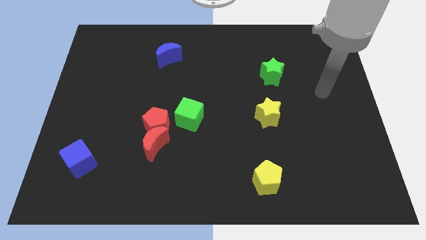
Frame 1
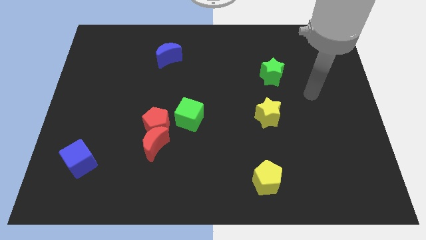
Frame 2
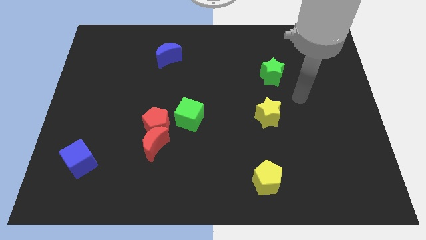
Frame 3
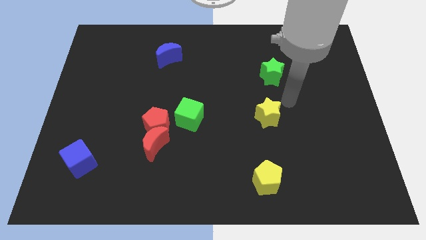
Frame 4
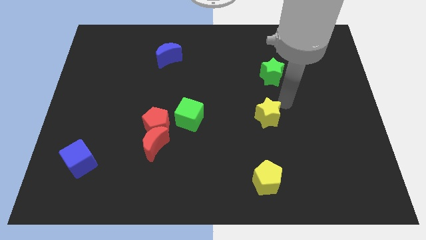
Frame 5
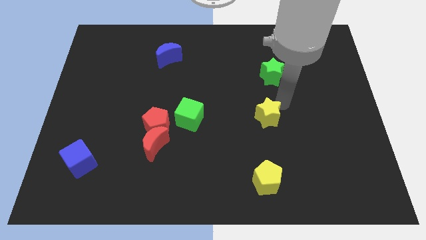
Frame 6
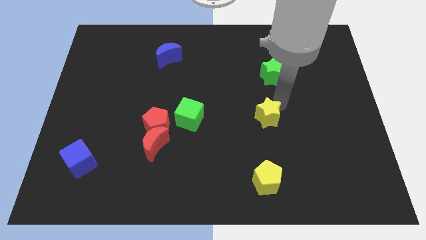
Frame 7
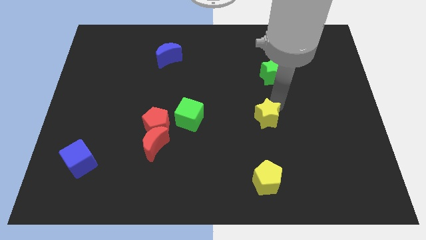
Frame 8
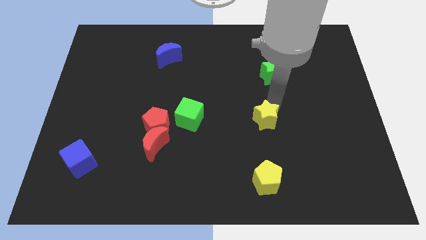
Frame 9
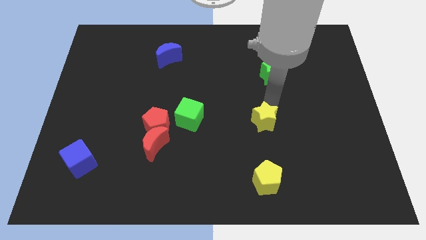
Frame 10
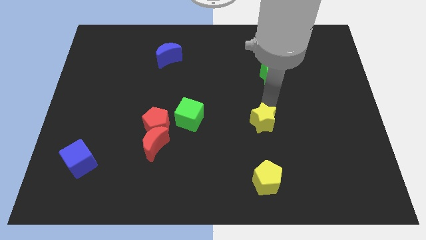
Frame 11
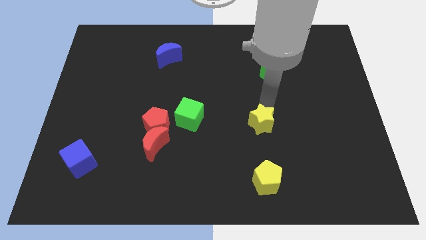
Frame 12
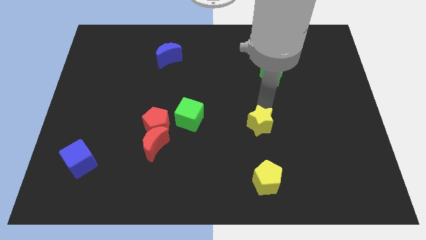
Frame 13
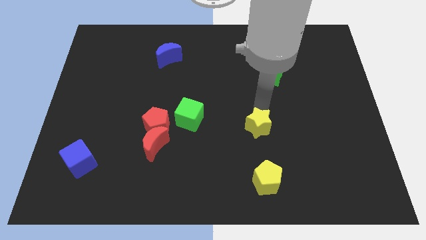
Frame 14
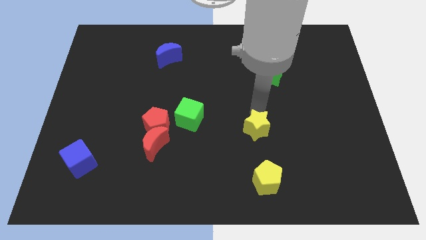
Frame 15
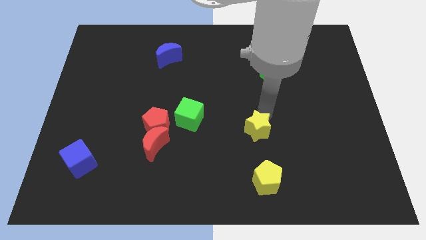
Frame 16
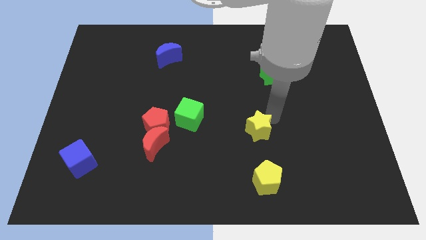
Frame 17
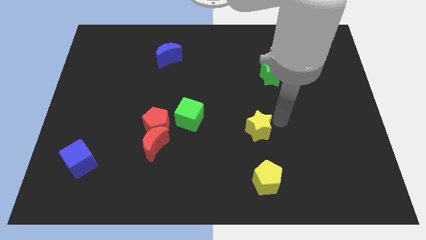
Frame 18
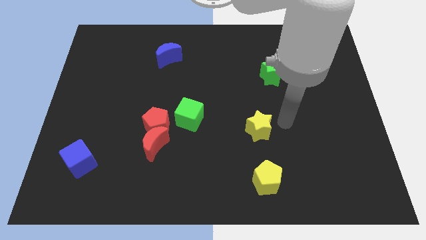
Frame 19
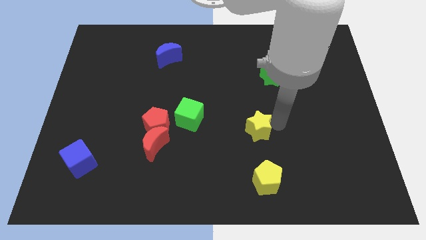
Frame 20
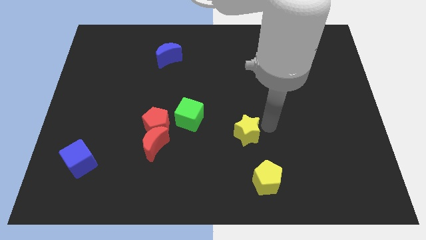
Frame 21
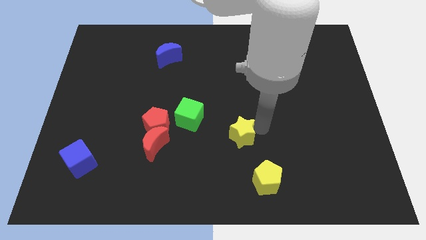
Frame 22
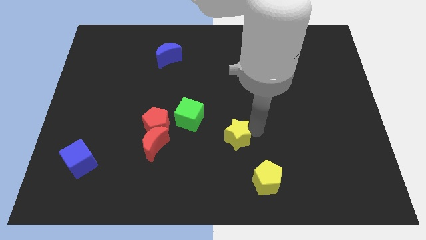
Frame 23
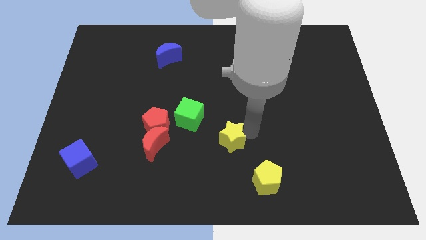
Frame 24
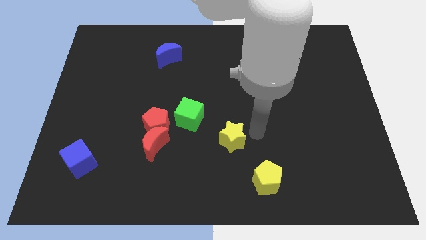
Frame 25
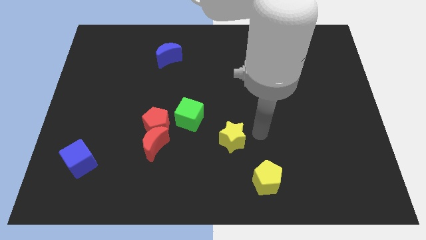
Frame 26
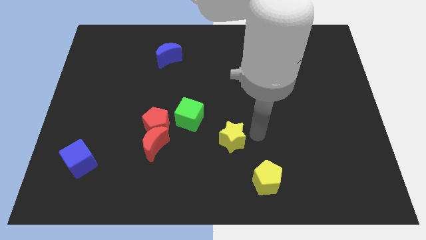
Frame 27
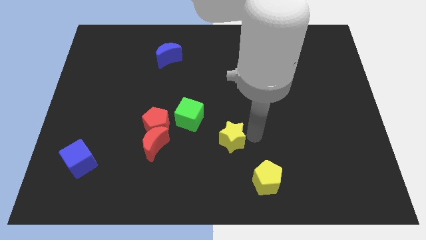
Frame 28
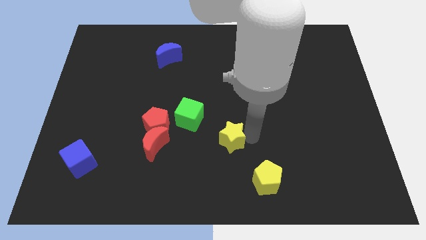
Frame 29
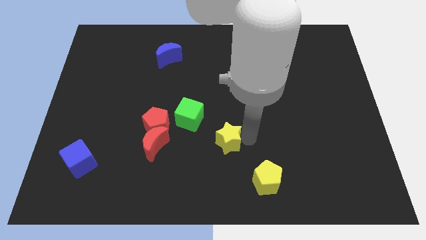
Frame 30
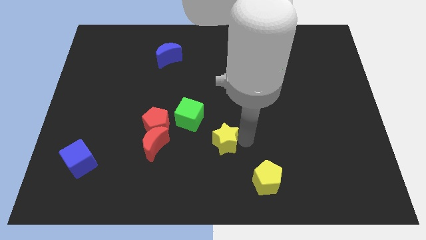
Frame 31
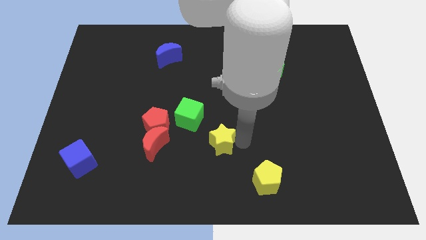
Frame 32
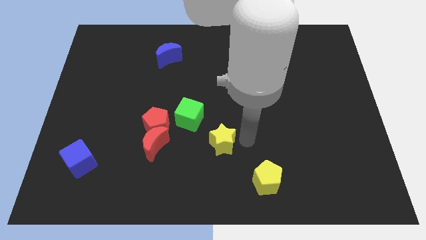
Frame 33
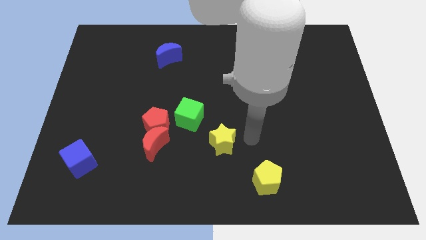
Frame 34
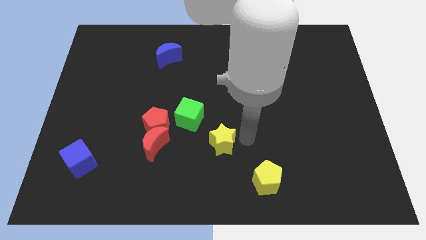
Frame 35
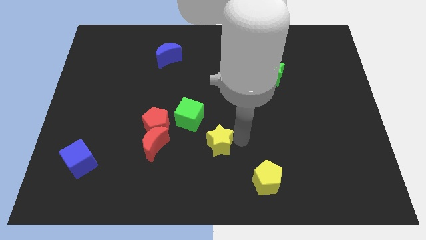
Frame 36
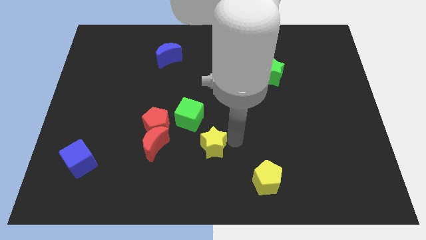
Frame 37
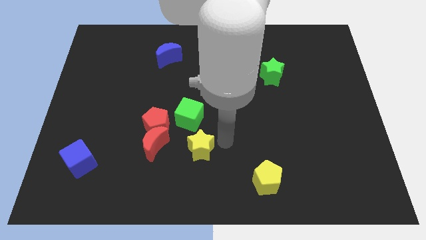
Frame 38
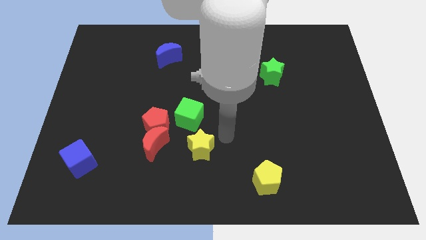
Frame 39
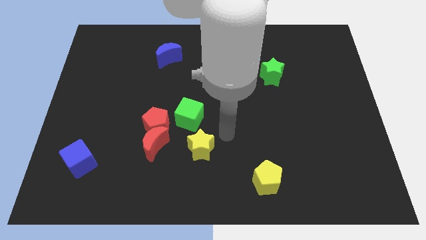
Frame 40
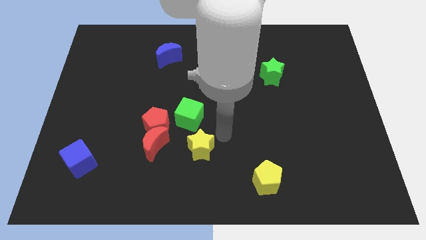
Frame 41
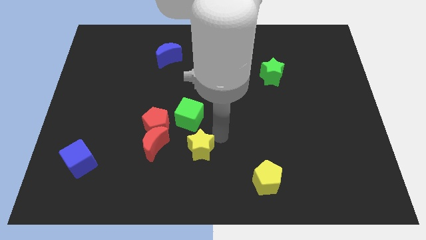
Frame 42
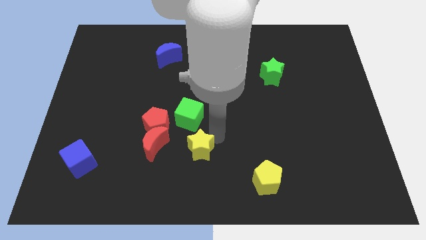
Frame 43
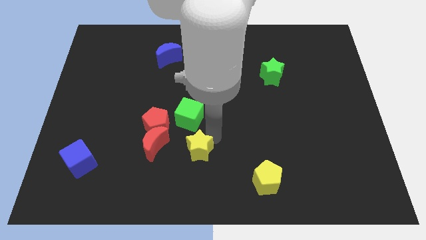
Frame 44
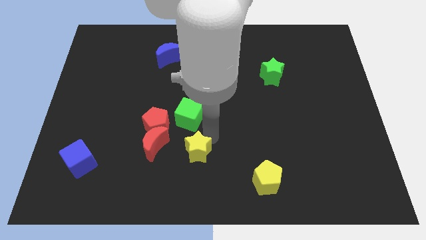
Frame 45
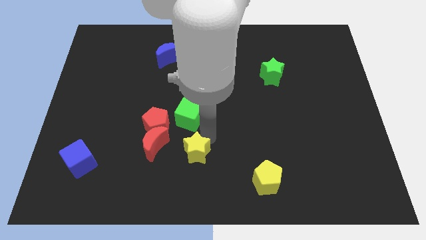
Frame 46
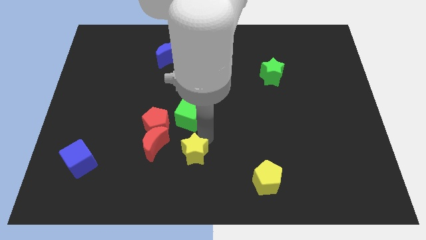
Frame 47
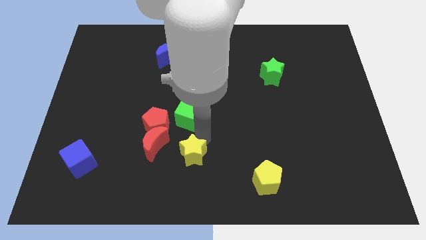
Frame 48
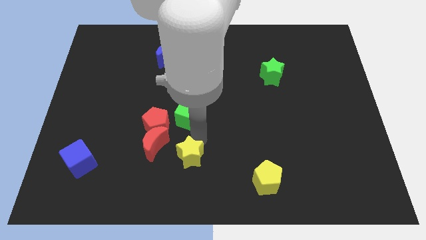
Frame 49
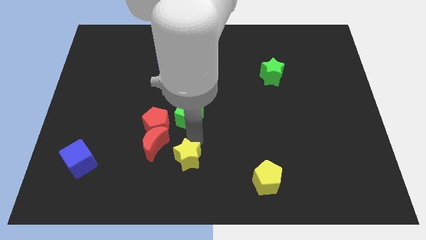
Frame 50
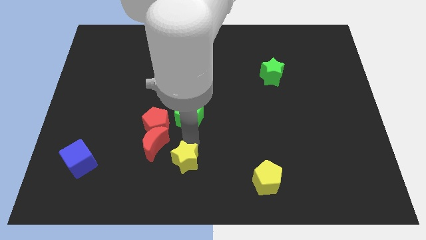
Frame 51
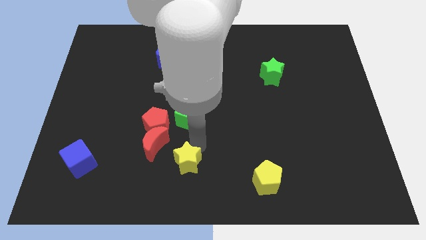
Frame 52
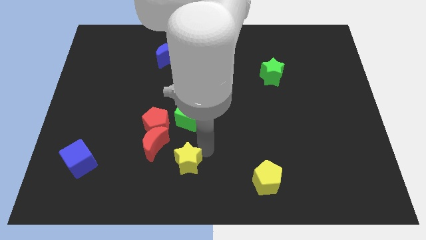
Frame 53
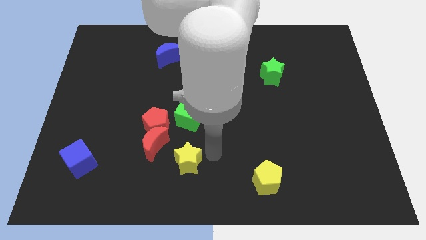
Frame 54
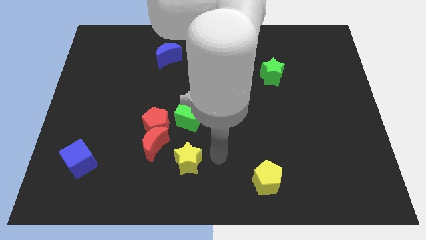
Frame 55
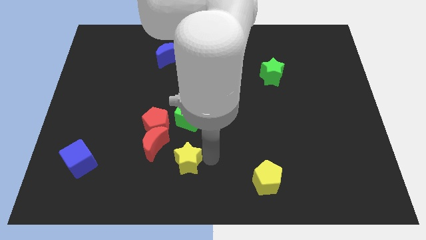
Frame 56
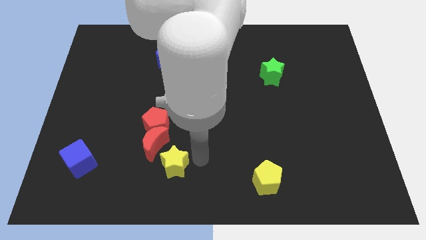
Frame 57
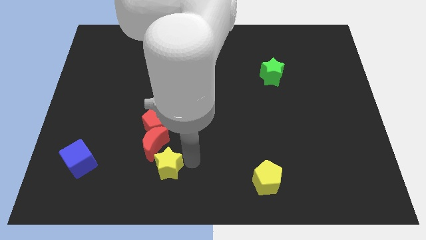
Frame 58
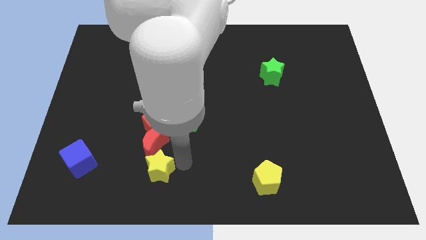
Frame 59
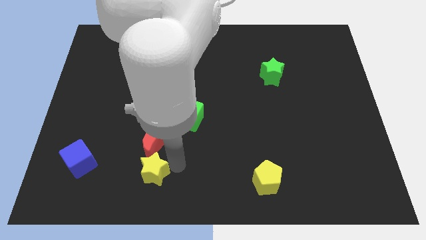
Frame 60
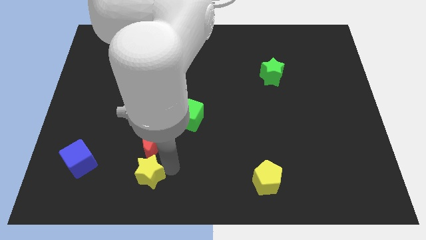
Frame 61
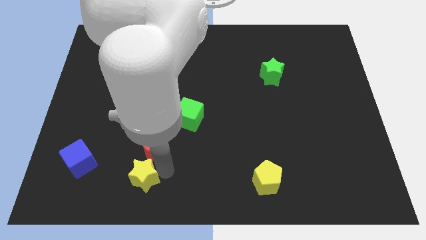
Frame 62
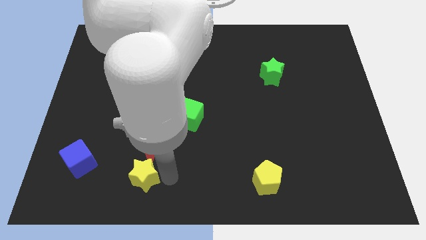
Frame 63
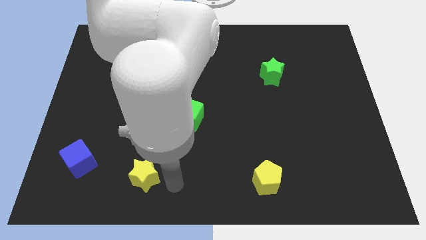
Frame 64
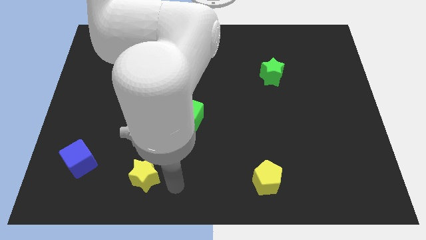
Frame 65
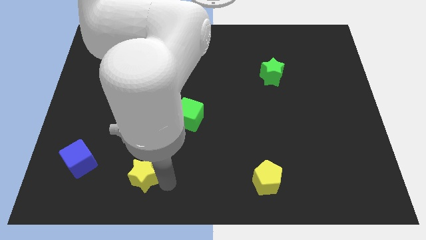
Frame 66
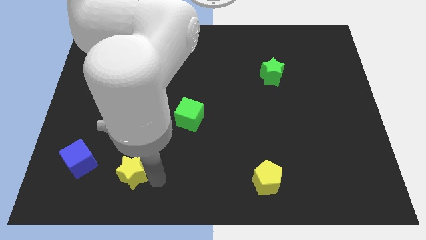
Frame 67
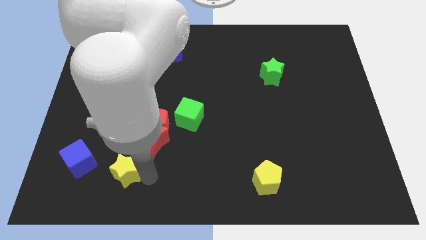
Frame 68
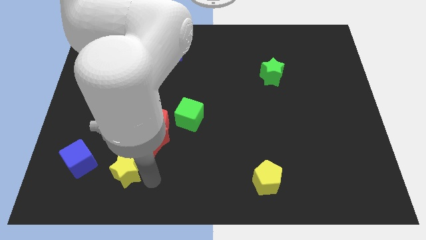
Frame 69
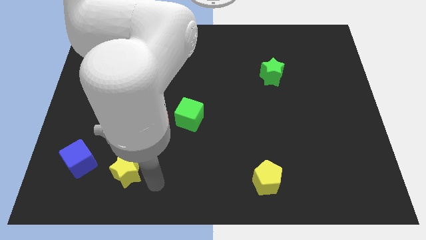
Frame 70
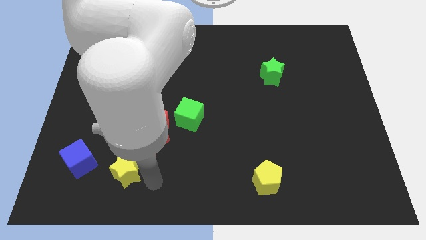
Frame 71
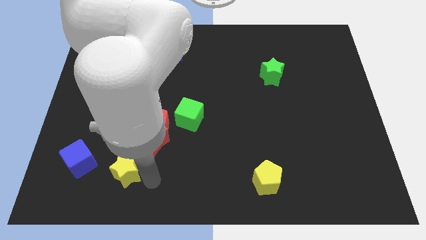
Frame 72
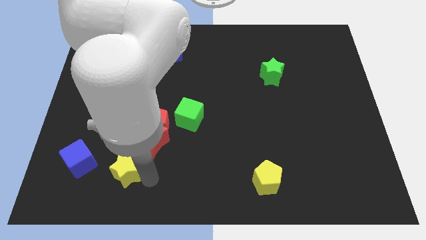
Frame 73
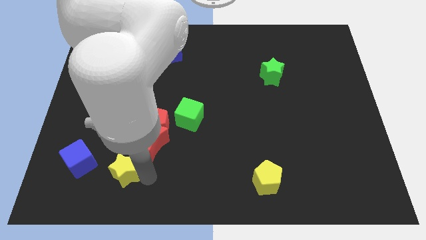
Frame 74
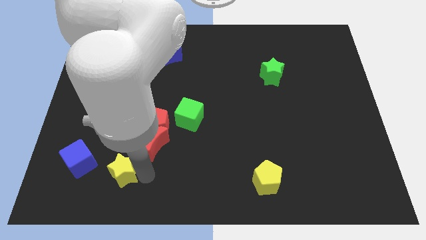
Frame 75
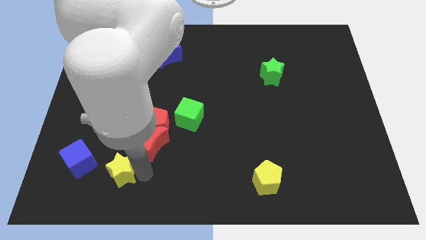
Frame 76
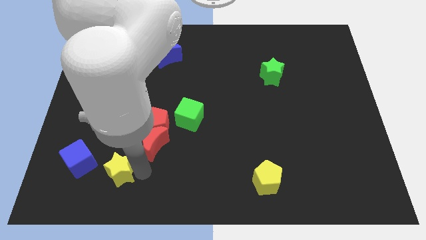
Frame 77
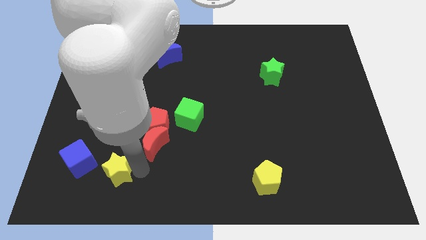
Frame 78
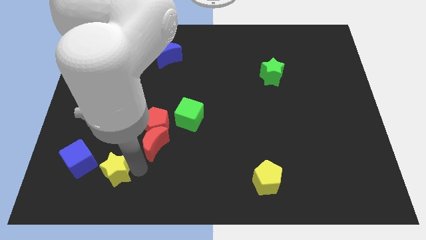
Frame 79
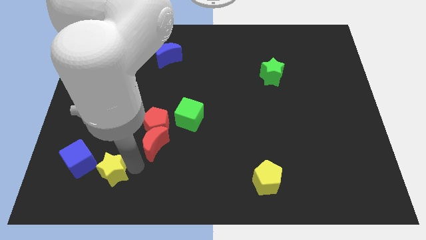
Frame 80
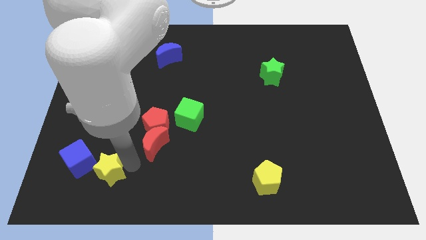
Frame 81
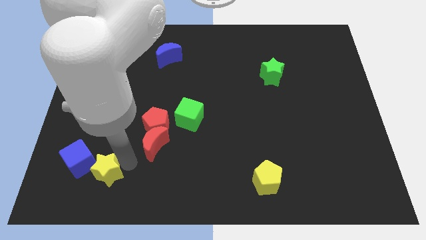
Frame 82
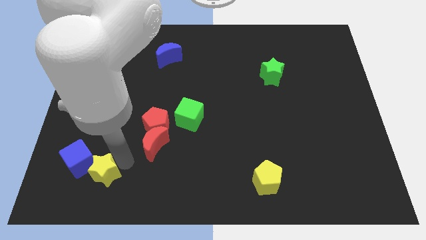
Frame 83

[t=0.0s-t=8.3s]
push the yellow star to the blue cube
